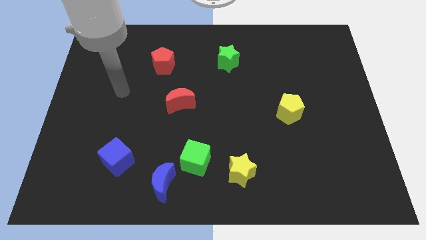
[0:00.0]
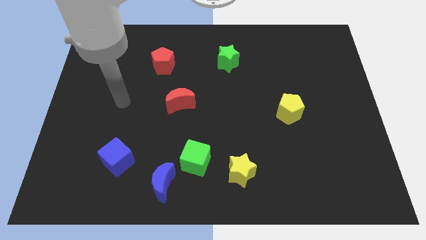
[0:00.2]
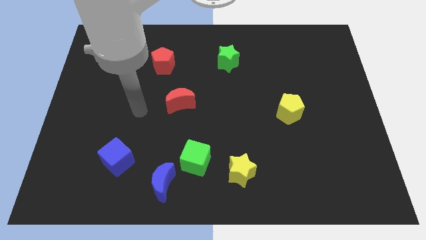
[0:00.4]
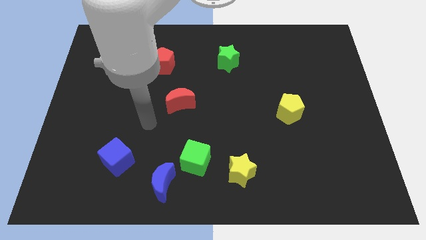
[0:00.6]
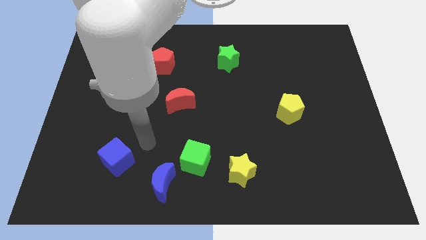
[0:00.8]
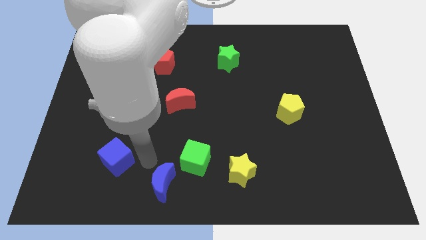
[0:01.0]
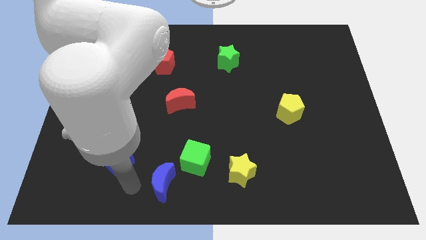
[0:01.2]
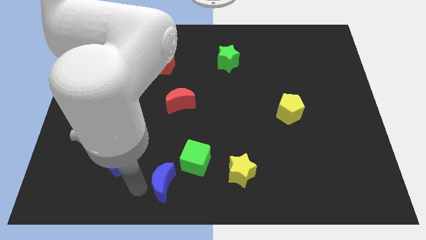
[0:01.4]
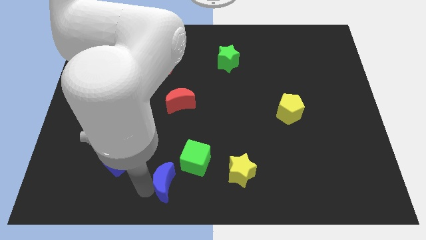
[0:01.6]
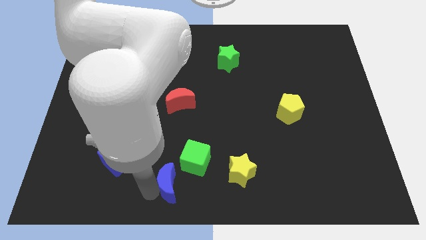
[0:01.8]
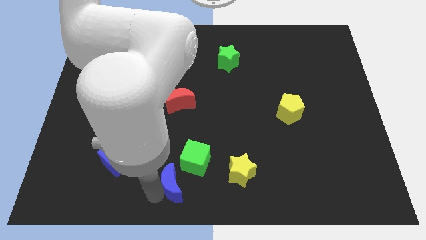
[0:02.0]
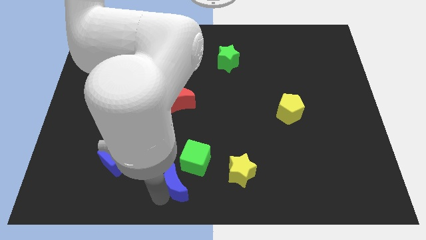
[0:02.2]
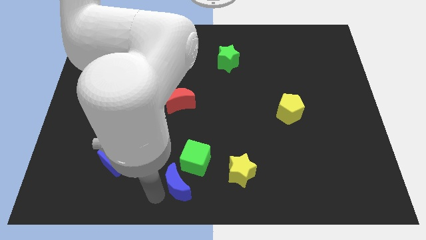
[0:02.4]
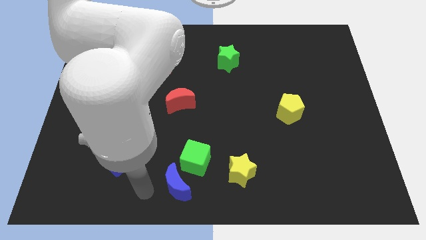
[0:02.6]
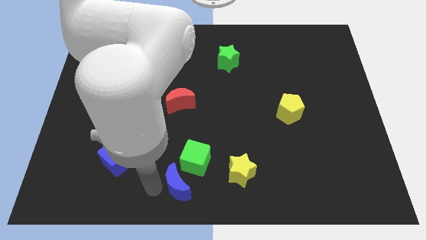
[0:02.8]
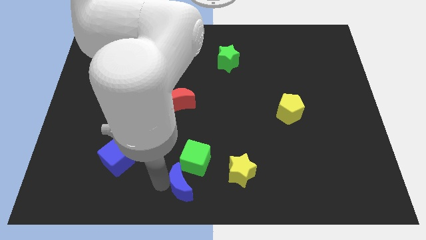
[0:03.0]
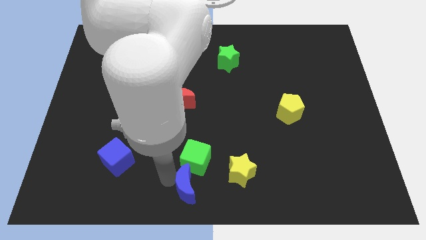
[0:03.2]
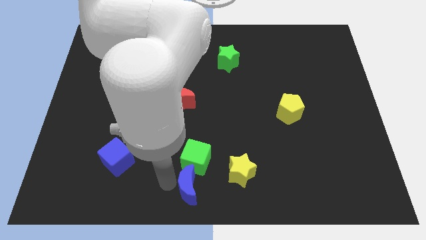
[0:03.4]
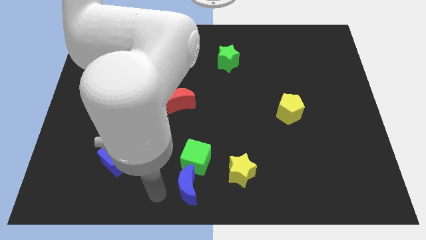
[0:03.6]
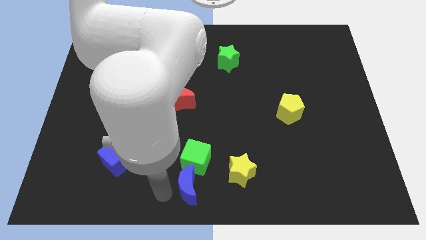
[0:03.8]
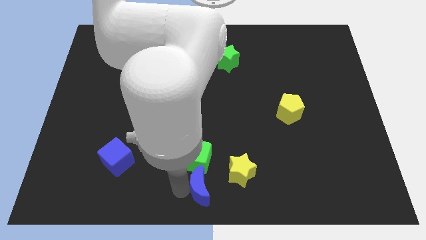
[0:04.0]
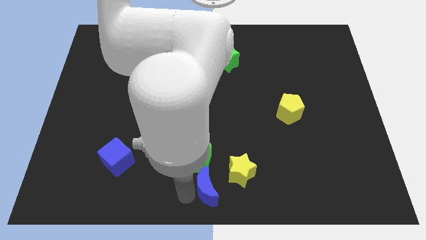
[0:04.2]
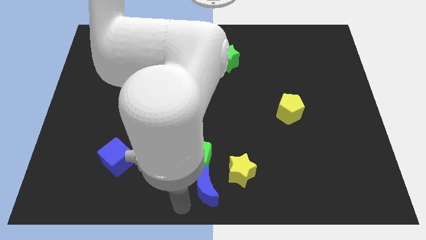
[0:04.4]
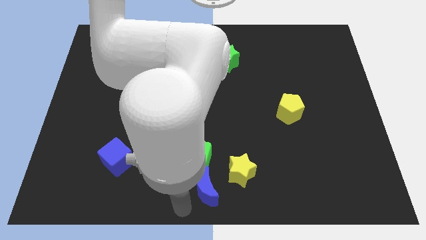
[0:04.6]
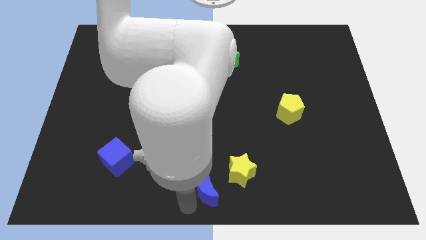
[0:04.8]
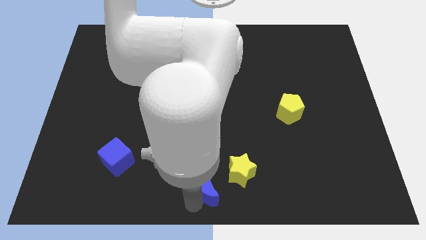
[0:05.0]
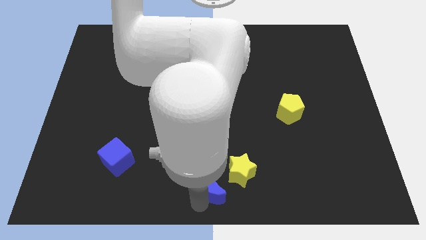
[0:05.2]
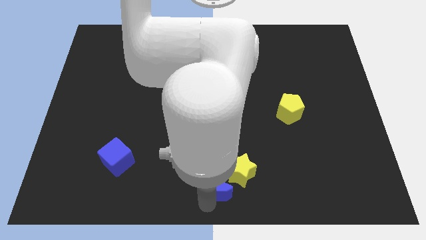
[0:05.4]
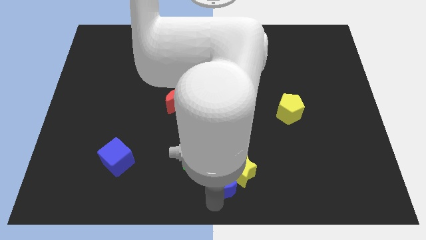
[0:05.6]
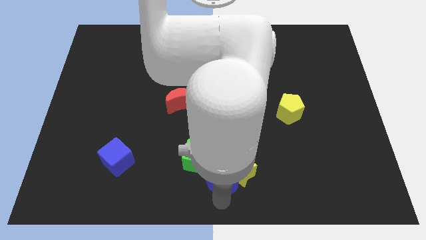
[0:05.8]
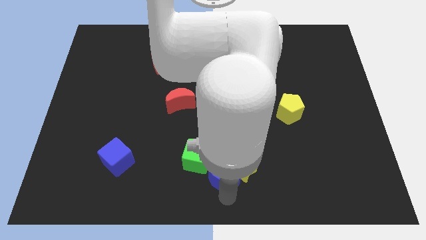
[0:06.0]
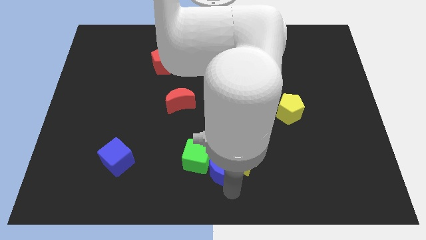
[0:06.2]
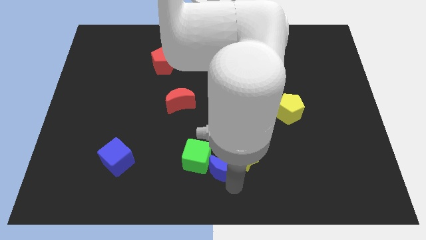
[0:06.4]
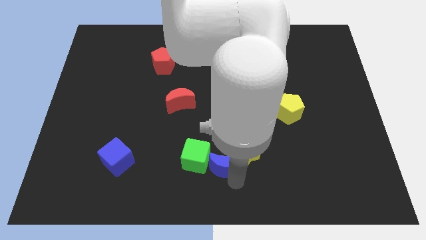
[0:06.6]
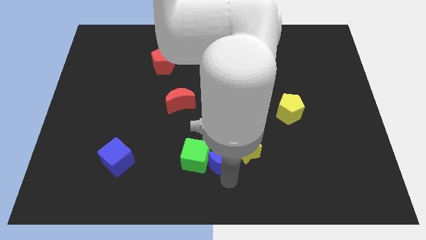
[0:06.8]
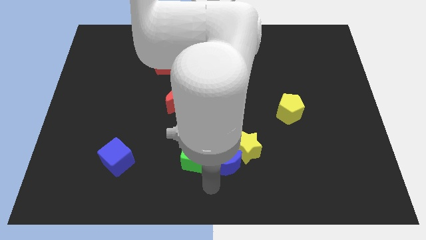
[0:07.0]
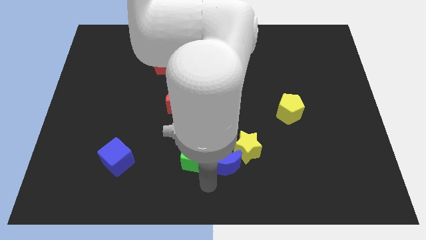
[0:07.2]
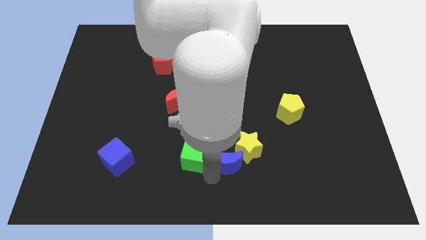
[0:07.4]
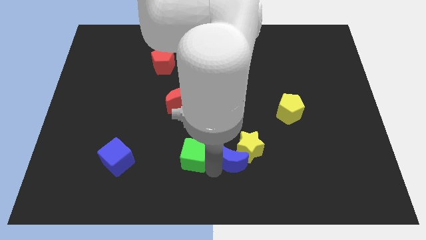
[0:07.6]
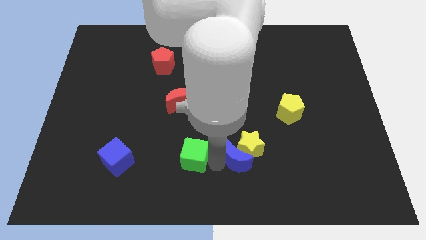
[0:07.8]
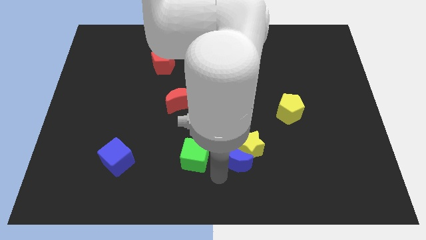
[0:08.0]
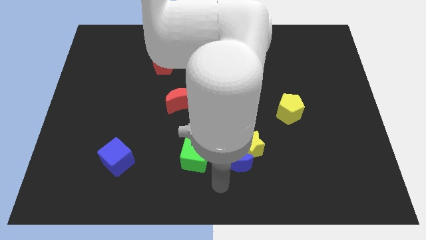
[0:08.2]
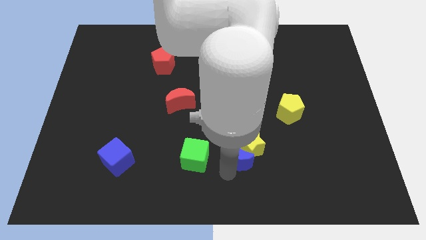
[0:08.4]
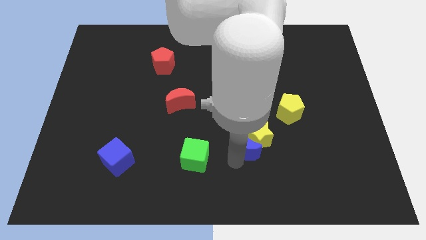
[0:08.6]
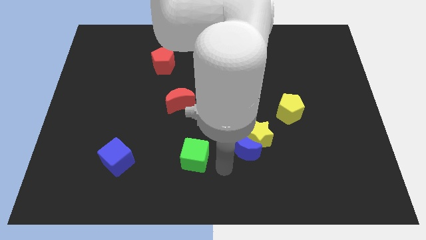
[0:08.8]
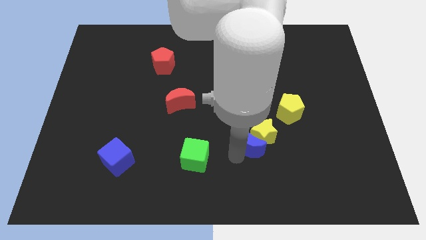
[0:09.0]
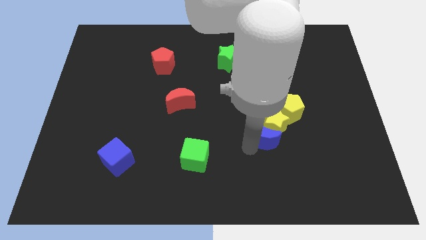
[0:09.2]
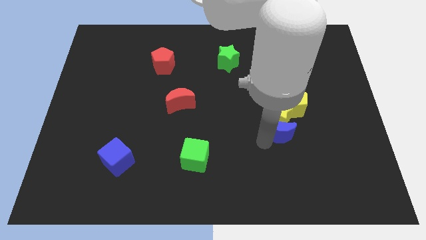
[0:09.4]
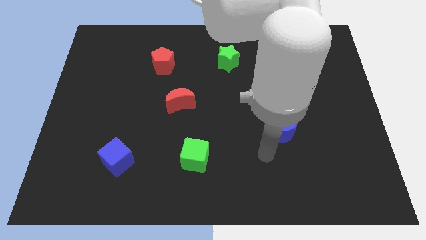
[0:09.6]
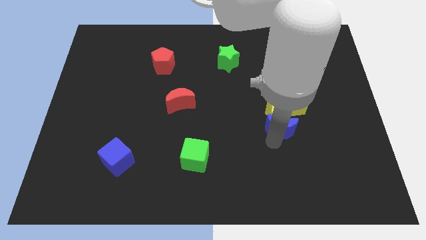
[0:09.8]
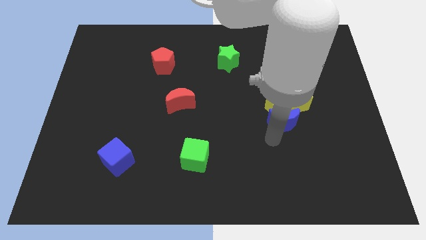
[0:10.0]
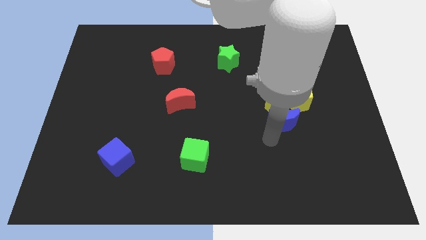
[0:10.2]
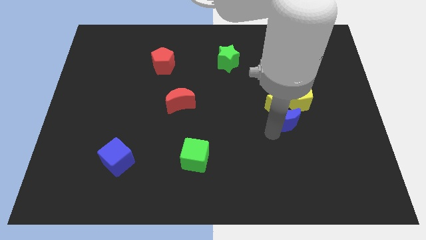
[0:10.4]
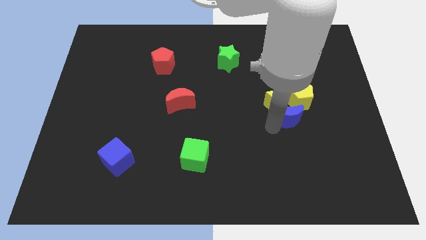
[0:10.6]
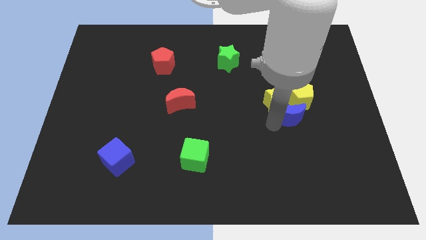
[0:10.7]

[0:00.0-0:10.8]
move the blue moon close to the yellow pentagon

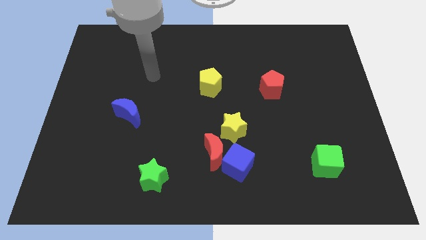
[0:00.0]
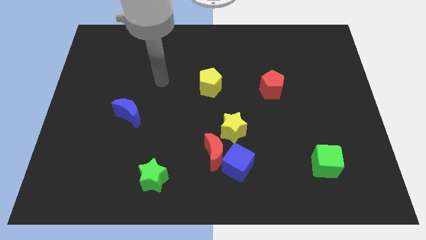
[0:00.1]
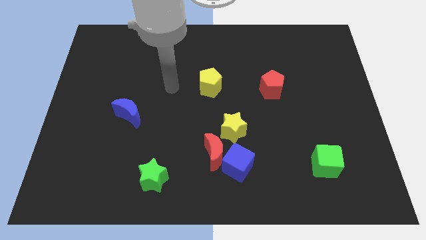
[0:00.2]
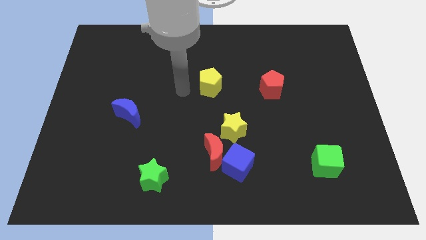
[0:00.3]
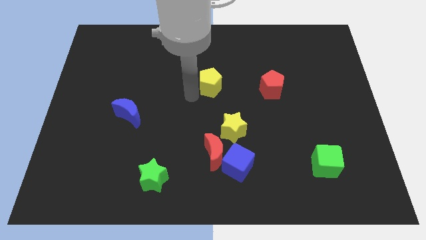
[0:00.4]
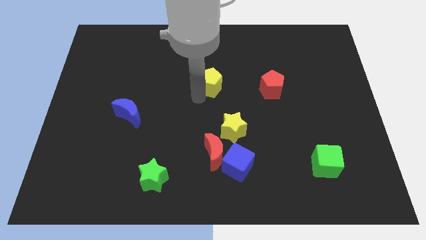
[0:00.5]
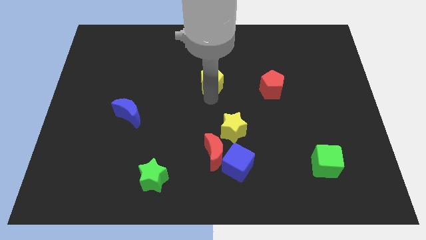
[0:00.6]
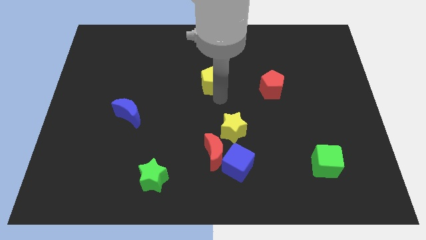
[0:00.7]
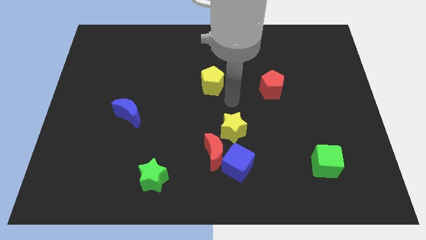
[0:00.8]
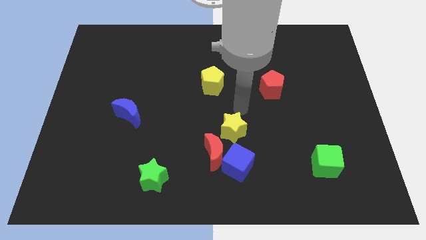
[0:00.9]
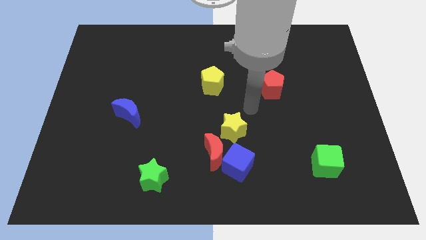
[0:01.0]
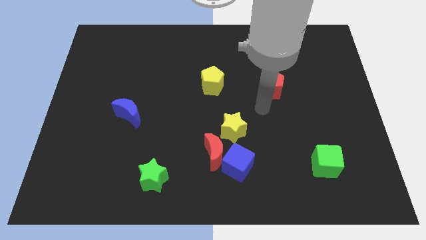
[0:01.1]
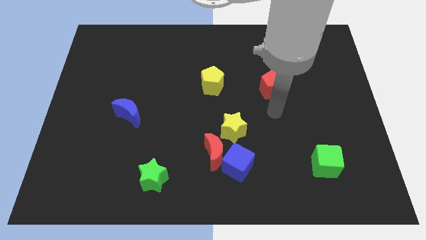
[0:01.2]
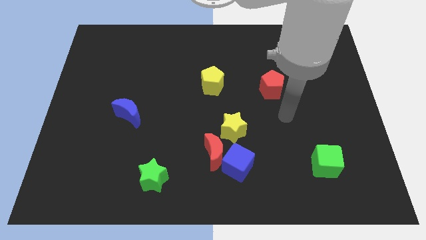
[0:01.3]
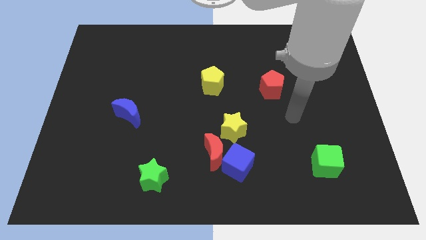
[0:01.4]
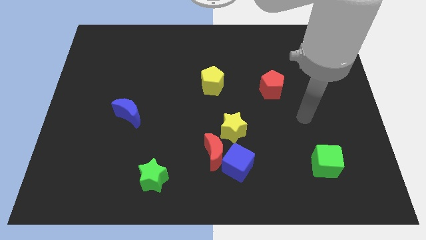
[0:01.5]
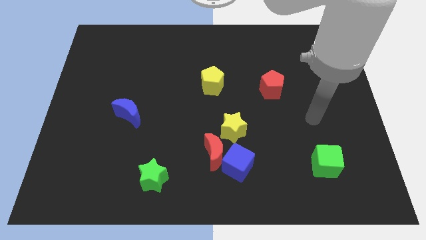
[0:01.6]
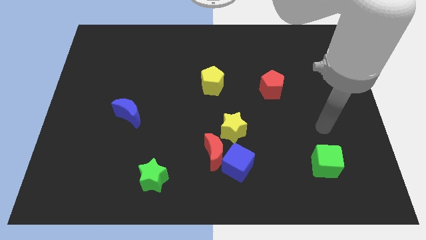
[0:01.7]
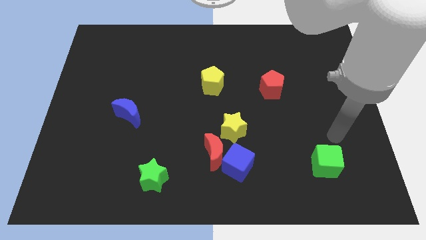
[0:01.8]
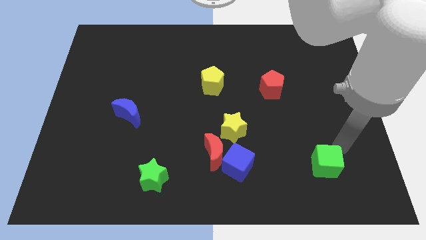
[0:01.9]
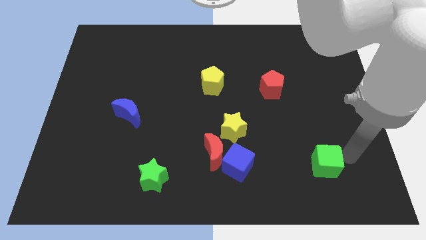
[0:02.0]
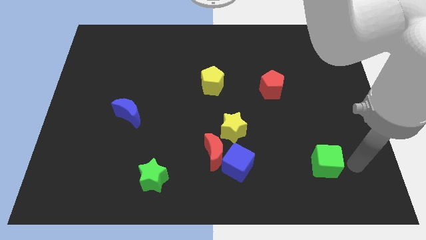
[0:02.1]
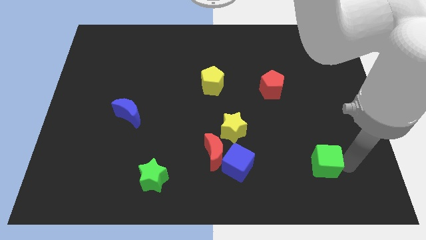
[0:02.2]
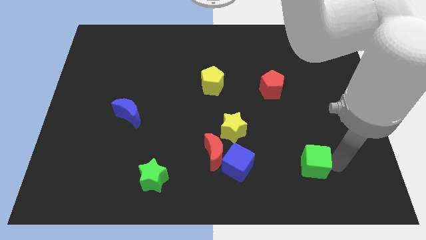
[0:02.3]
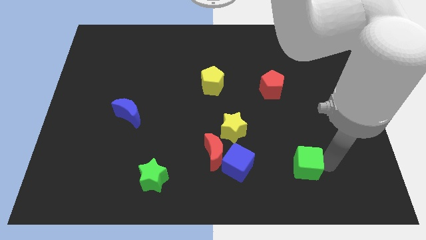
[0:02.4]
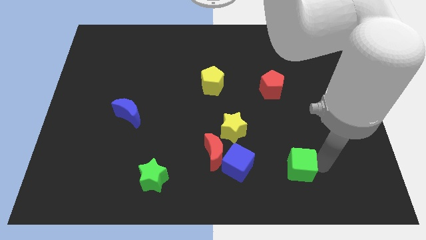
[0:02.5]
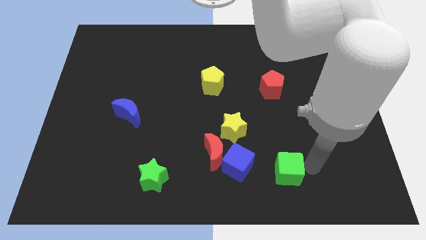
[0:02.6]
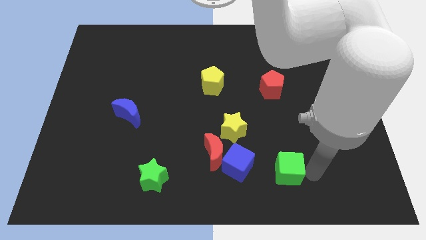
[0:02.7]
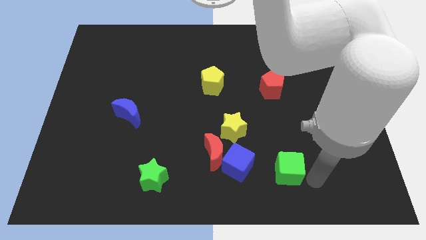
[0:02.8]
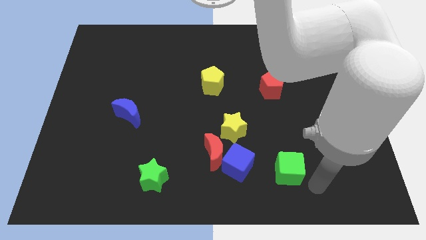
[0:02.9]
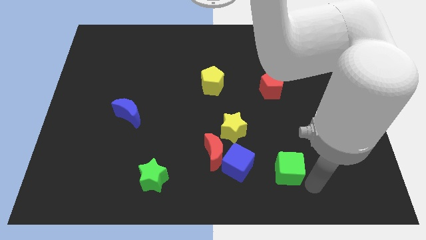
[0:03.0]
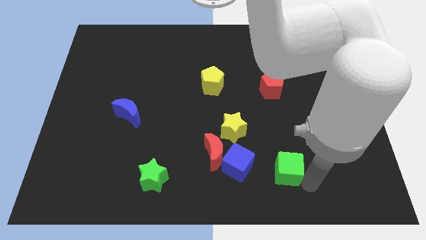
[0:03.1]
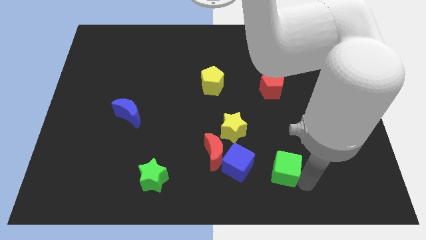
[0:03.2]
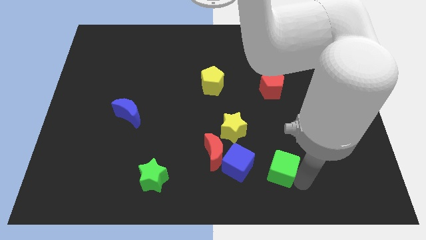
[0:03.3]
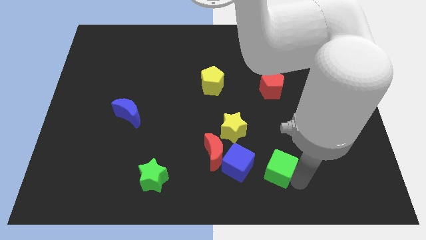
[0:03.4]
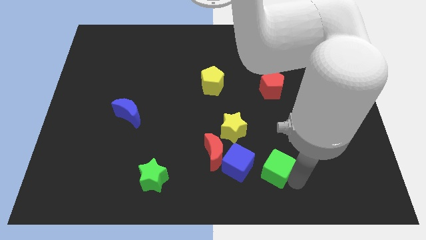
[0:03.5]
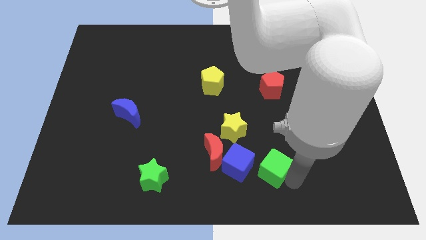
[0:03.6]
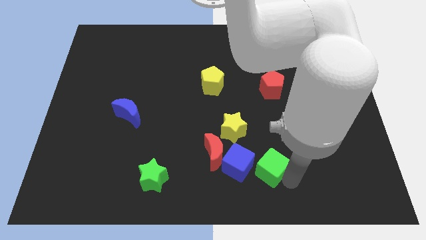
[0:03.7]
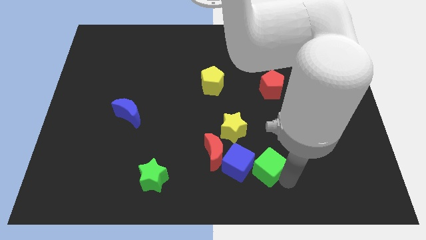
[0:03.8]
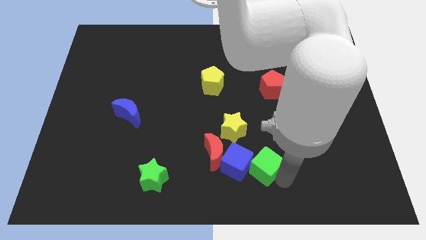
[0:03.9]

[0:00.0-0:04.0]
move the green cube close to the blue cube
